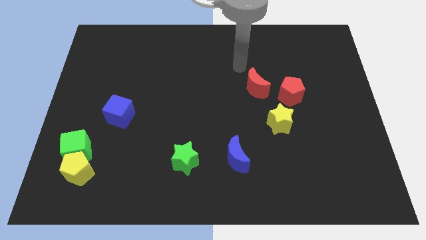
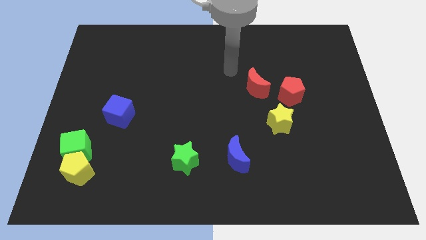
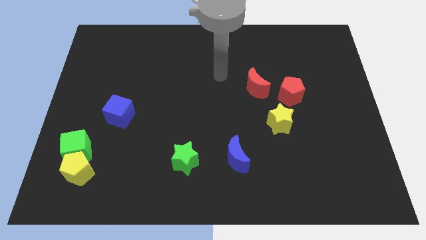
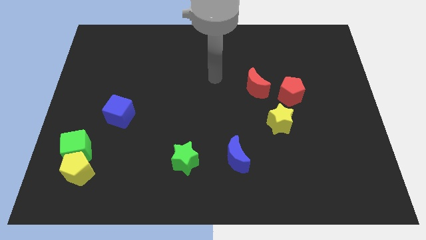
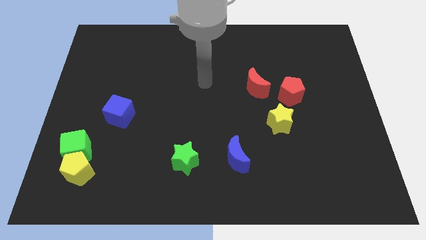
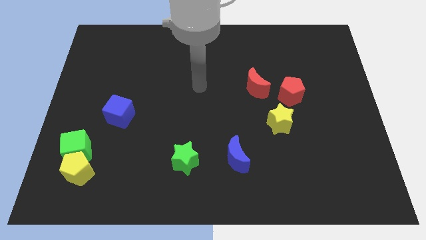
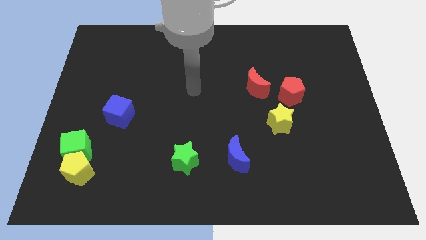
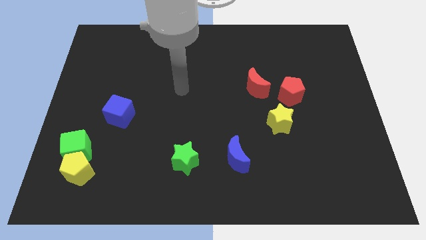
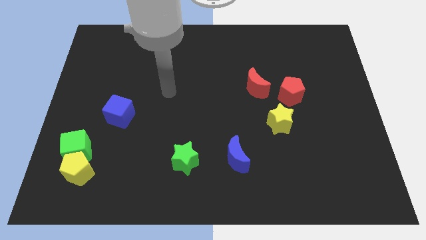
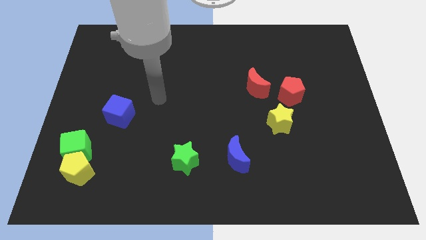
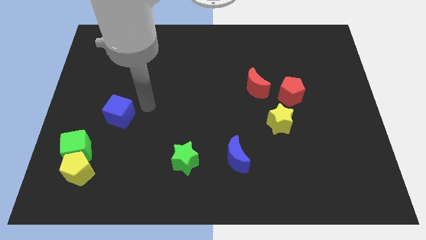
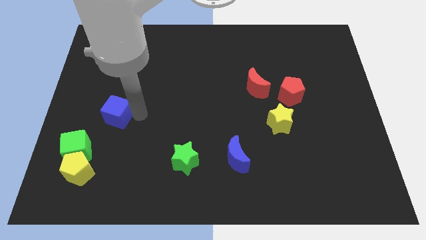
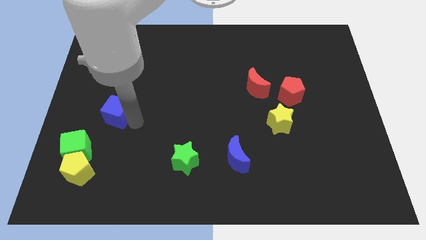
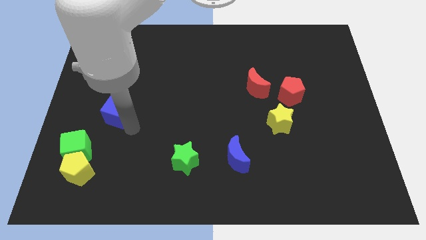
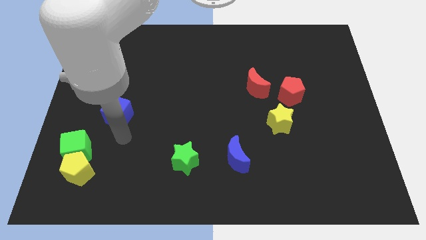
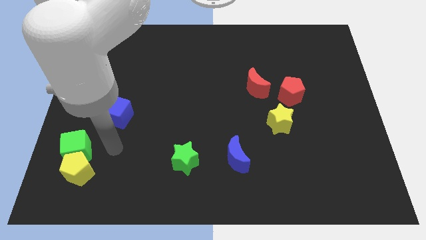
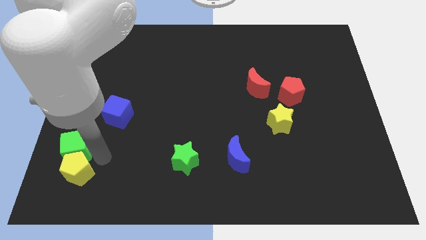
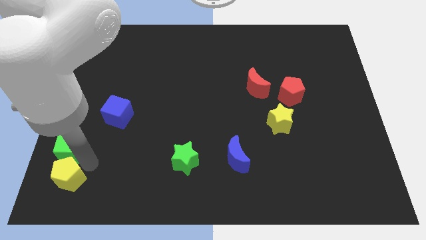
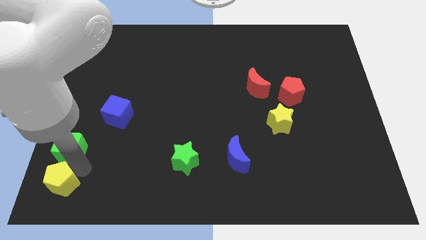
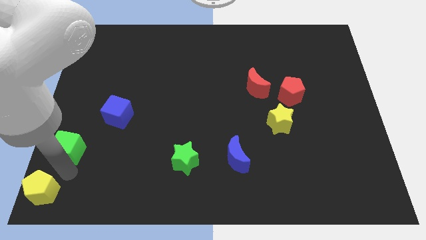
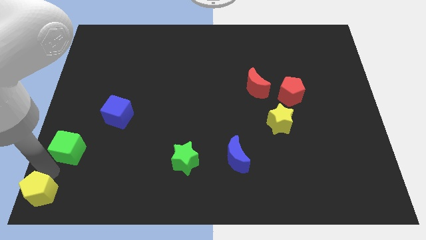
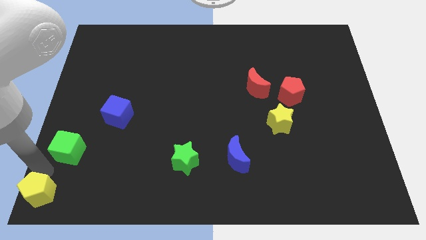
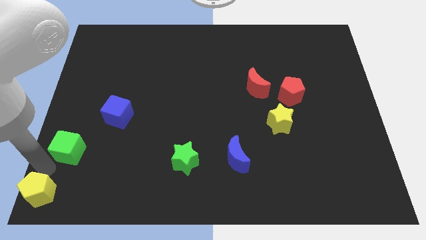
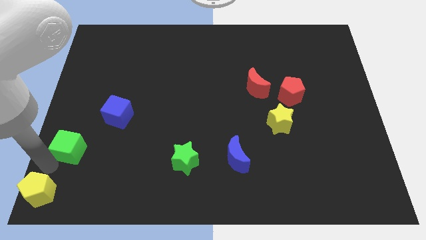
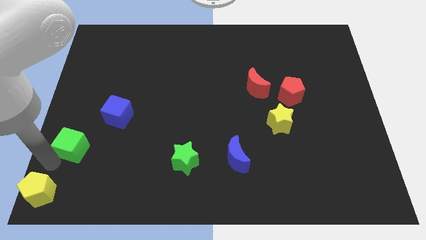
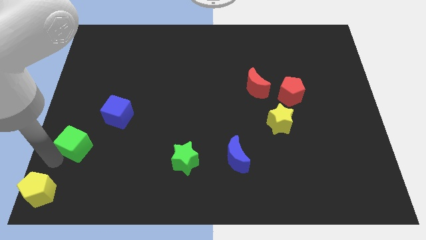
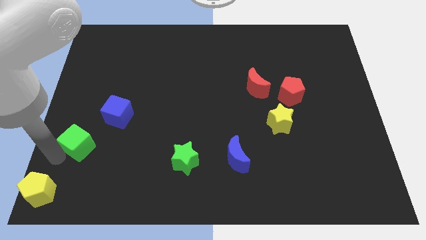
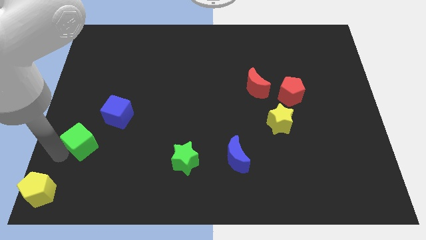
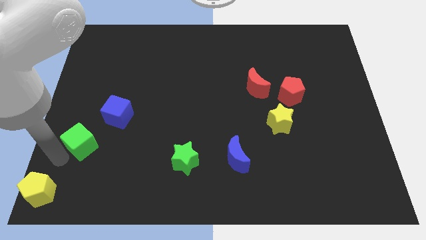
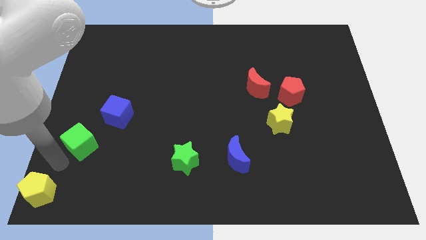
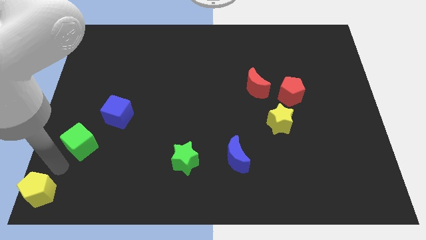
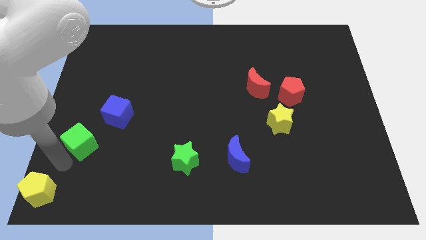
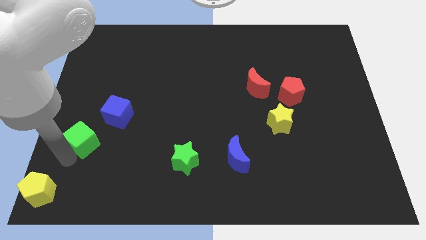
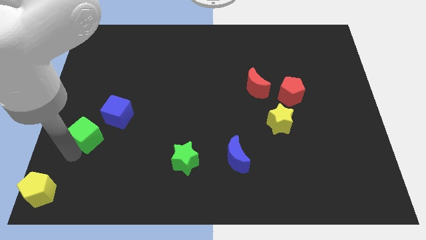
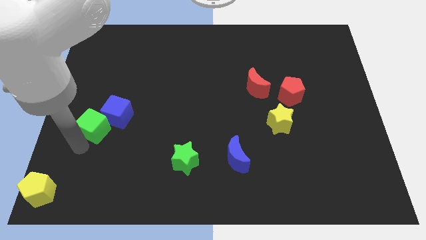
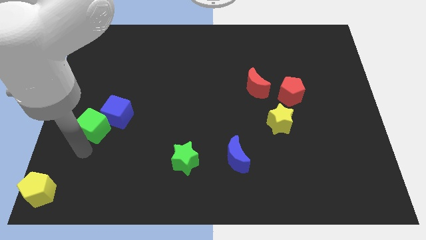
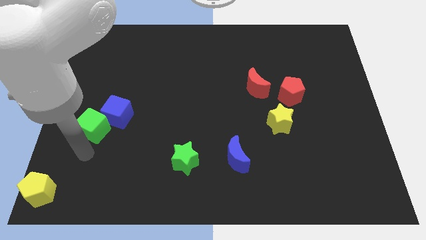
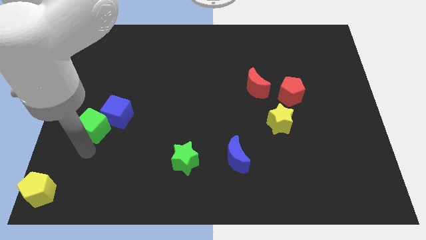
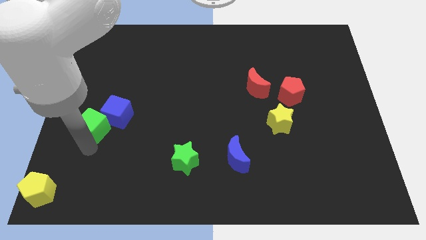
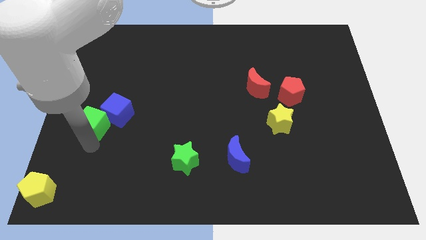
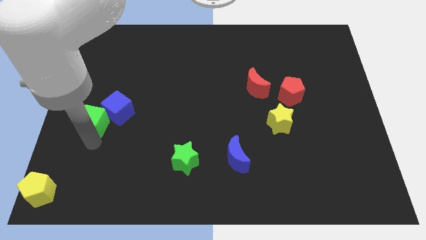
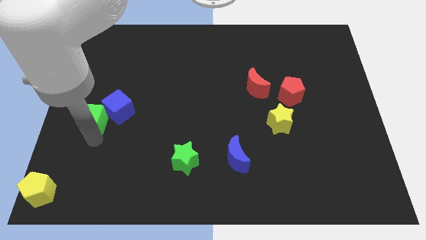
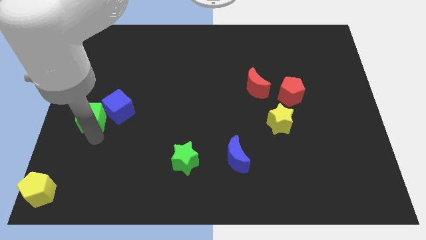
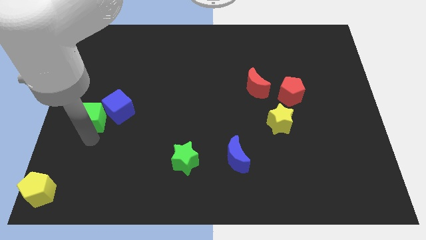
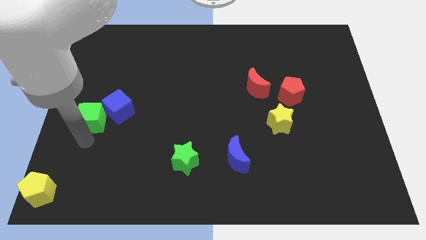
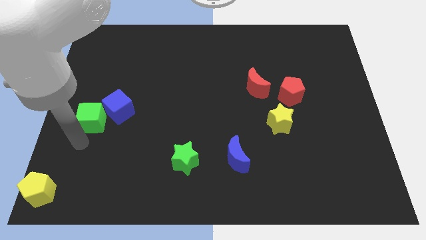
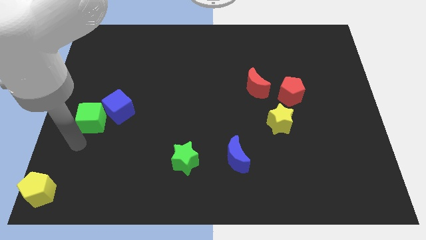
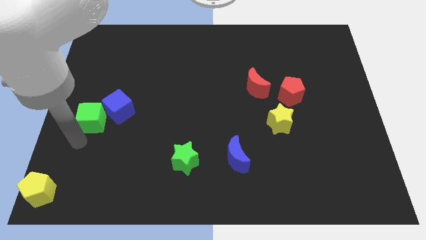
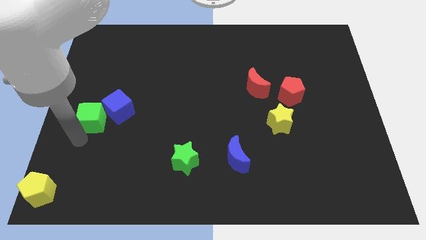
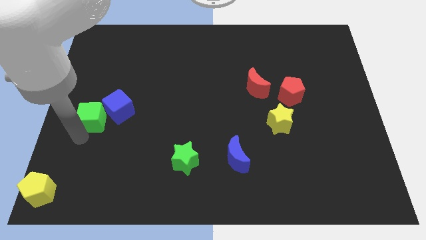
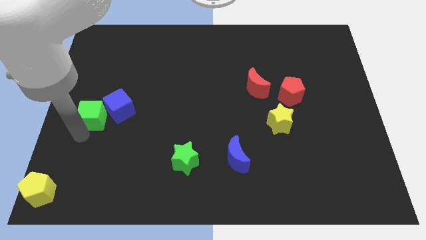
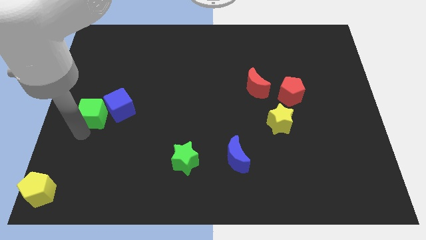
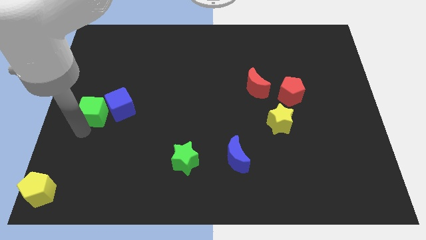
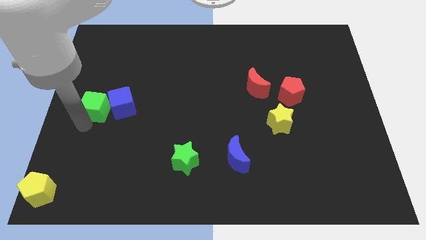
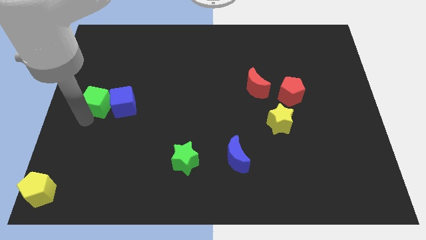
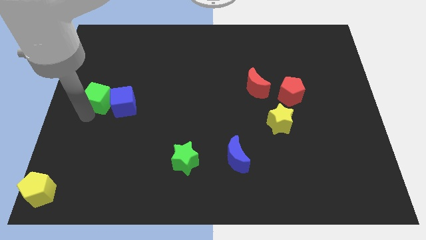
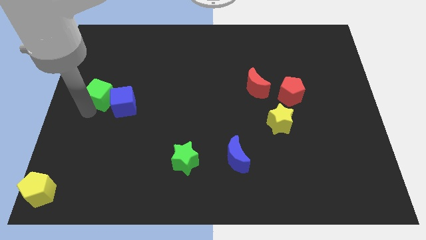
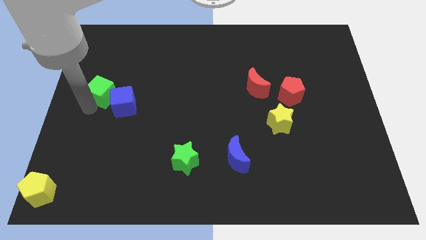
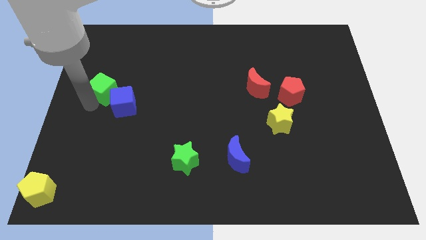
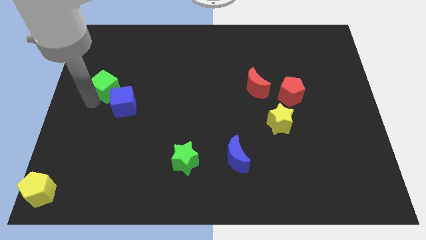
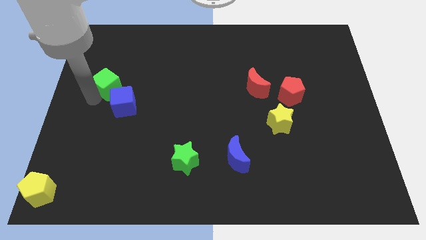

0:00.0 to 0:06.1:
move the green cube above the blue cube
